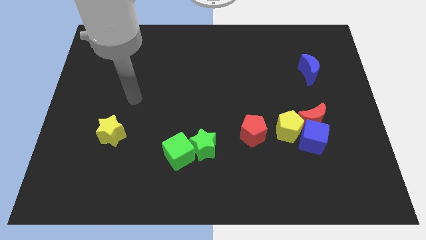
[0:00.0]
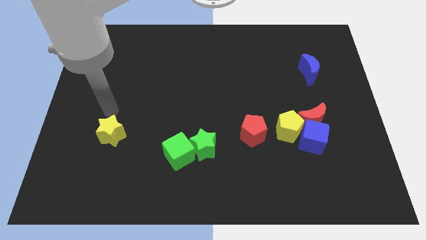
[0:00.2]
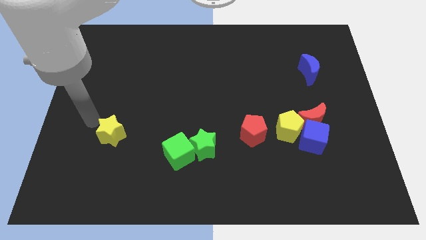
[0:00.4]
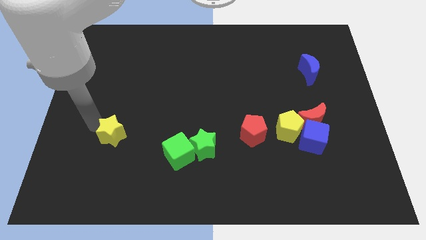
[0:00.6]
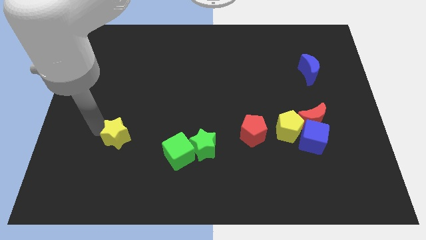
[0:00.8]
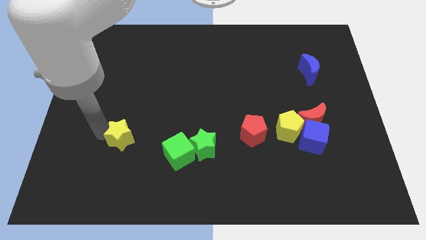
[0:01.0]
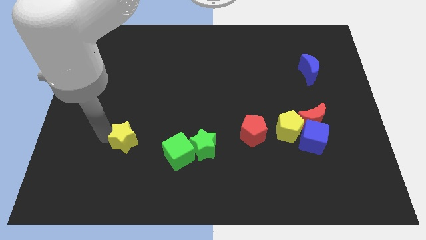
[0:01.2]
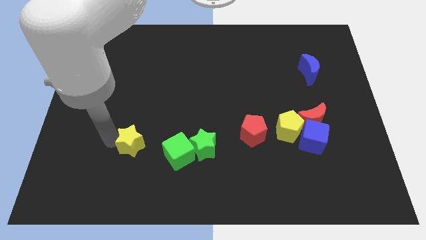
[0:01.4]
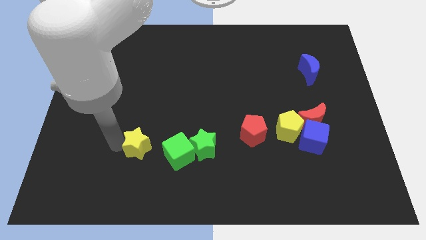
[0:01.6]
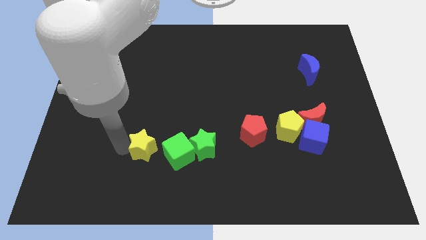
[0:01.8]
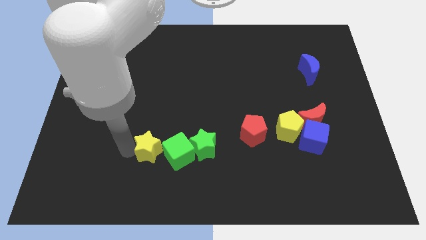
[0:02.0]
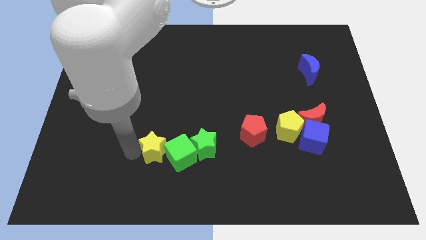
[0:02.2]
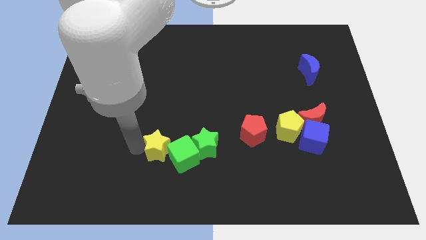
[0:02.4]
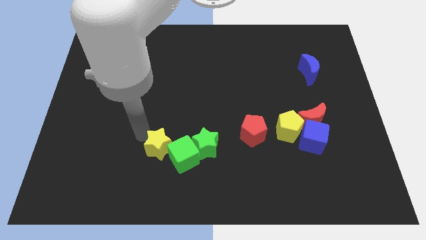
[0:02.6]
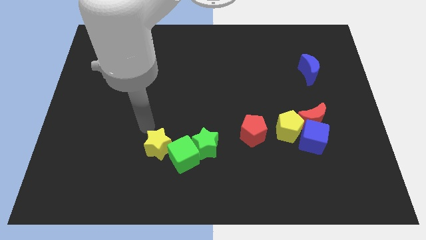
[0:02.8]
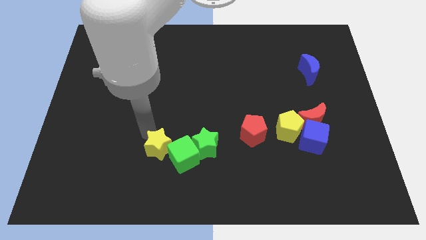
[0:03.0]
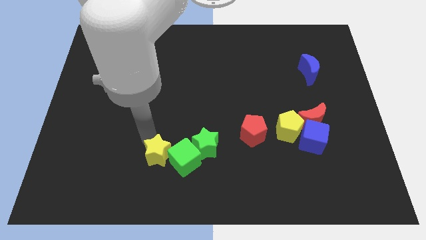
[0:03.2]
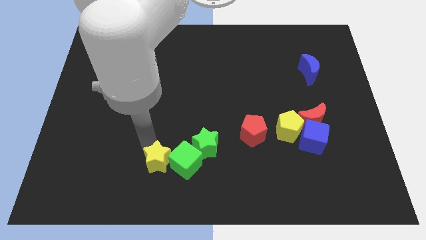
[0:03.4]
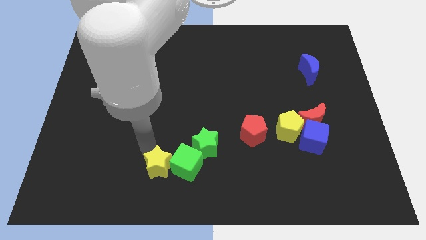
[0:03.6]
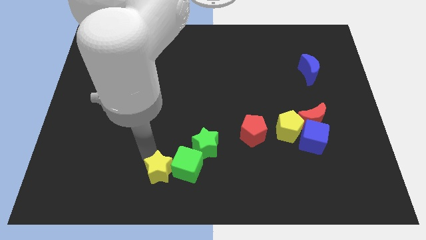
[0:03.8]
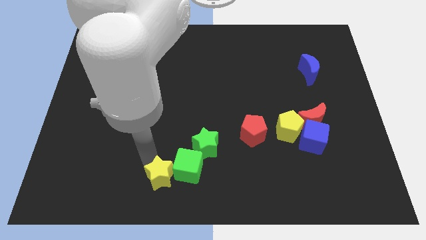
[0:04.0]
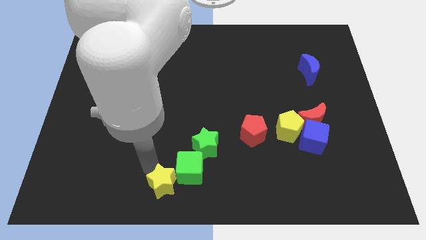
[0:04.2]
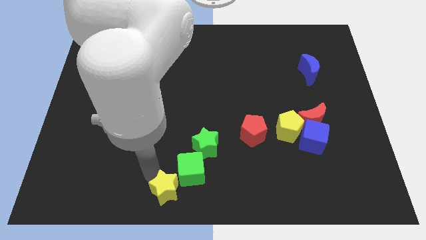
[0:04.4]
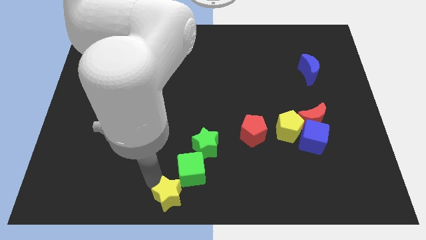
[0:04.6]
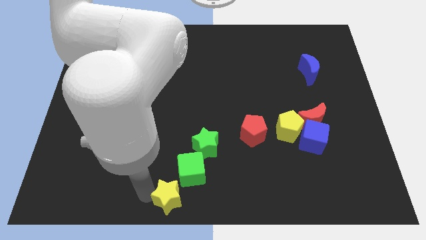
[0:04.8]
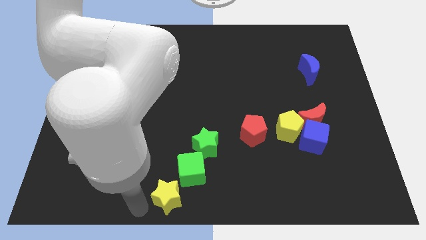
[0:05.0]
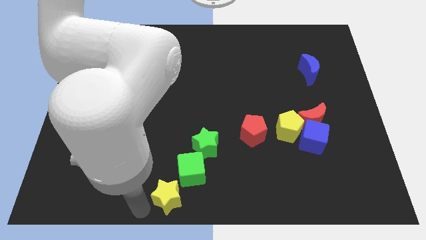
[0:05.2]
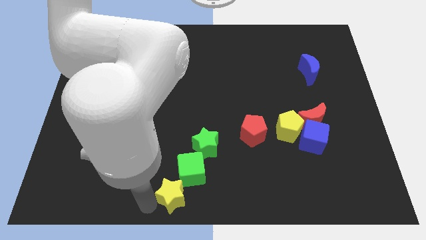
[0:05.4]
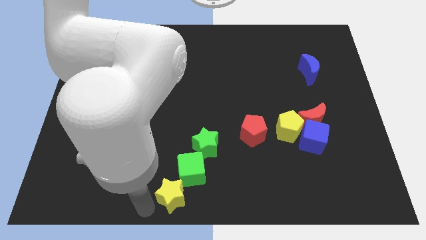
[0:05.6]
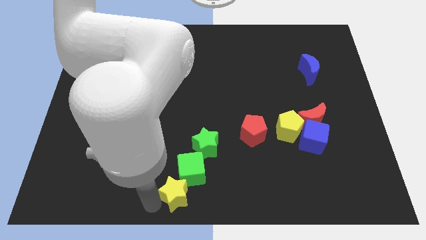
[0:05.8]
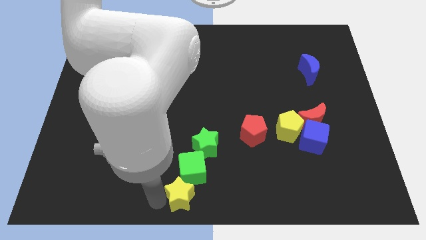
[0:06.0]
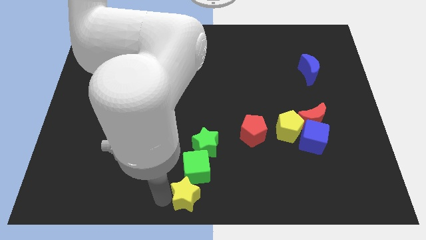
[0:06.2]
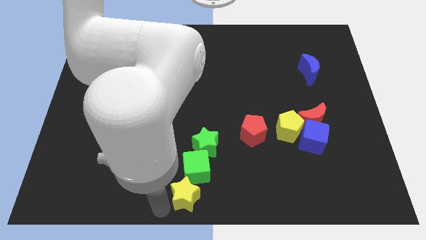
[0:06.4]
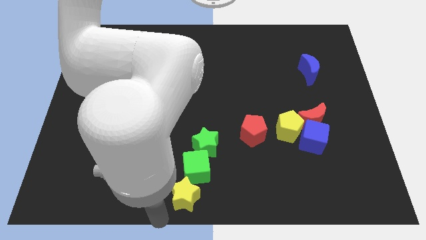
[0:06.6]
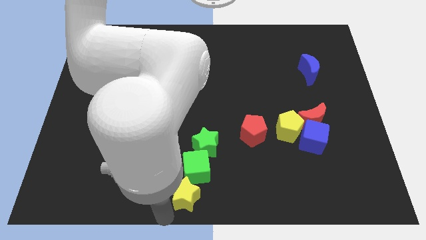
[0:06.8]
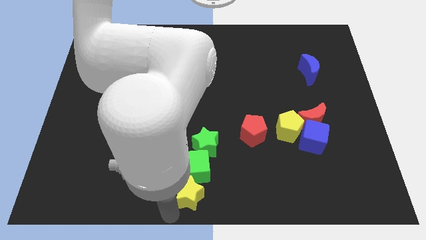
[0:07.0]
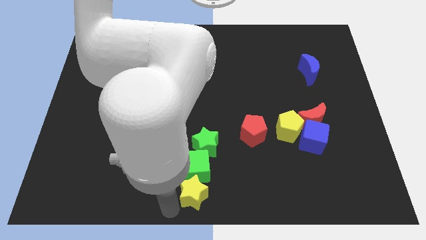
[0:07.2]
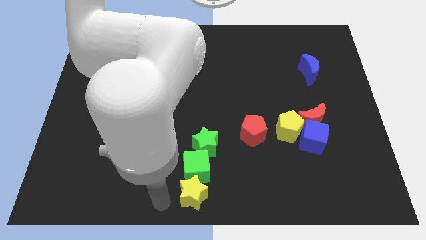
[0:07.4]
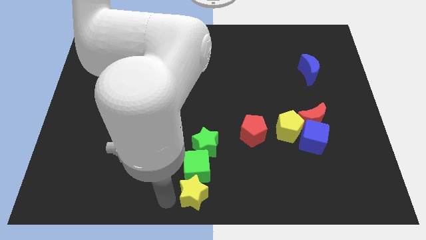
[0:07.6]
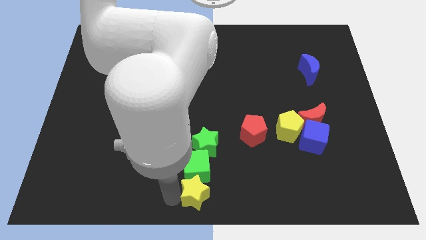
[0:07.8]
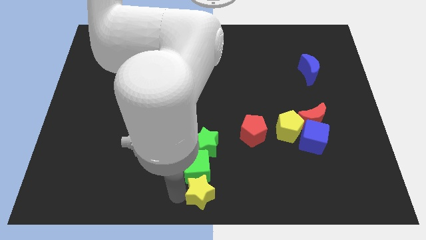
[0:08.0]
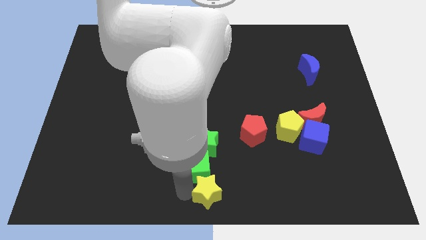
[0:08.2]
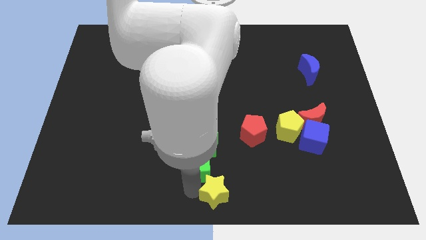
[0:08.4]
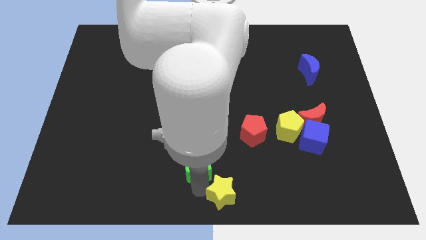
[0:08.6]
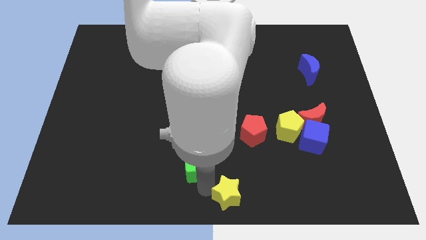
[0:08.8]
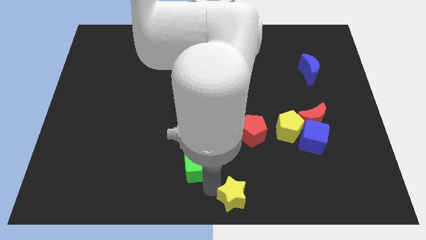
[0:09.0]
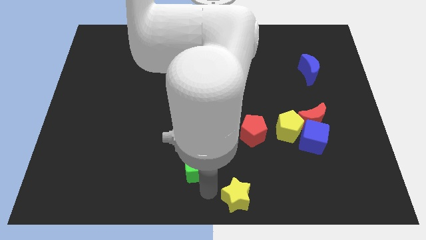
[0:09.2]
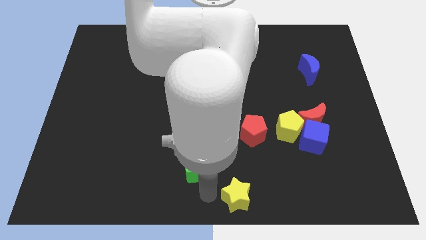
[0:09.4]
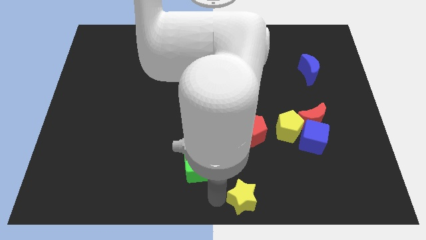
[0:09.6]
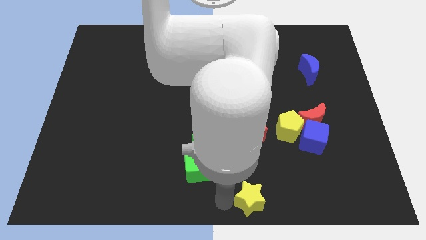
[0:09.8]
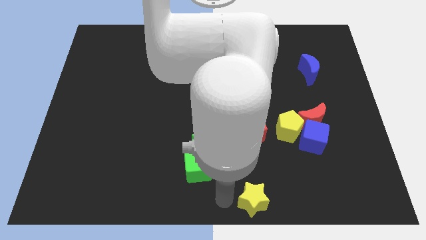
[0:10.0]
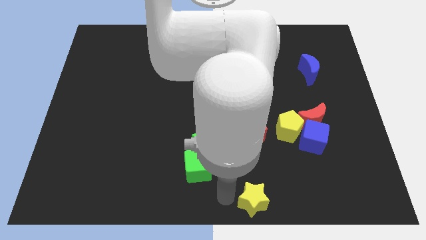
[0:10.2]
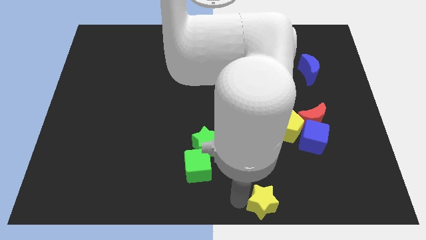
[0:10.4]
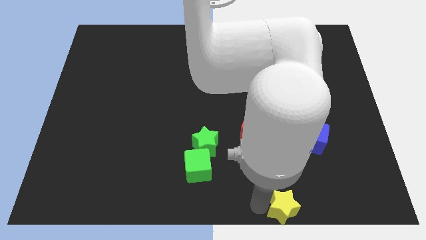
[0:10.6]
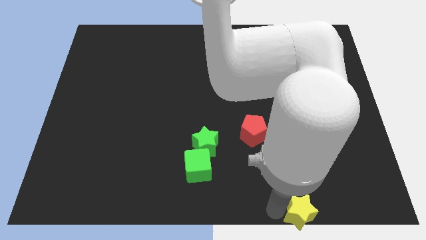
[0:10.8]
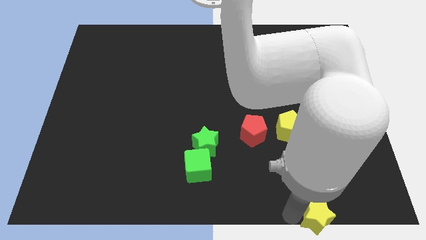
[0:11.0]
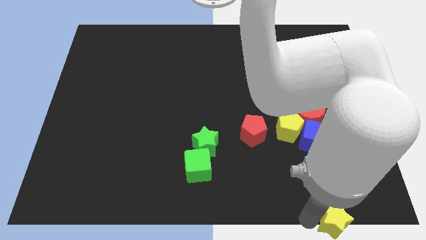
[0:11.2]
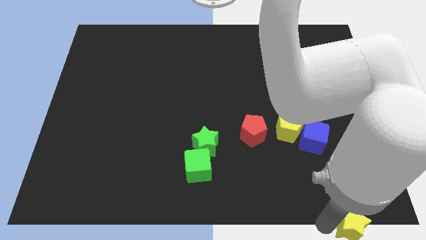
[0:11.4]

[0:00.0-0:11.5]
put the yellow star to the bottom right of the board

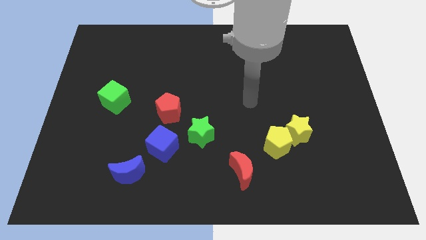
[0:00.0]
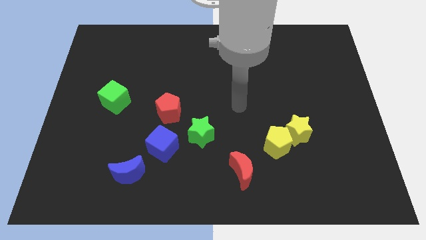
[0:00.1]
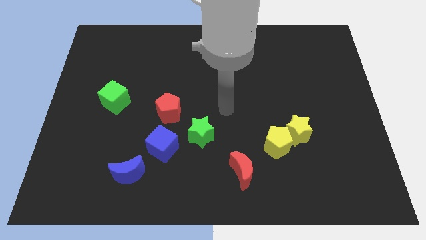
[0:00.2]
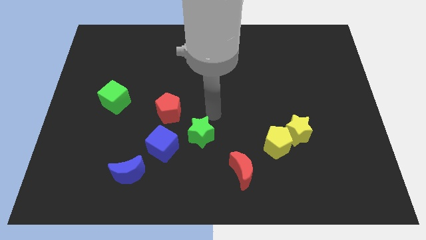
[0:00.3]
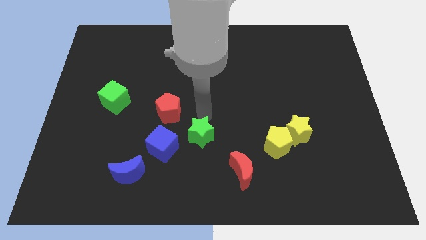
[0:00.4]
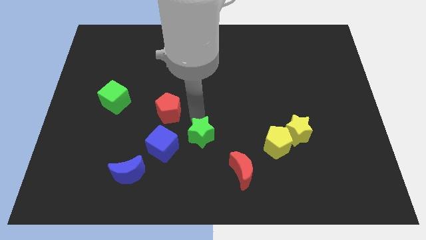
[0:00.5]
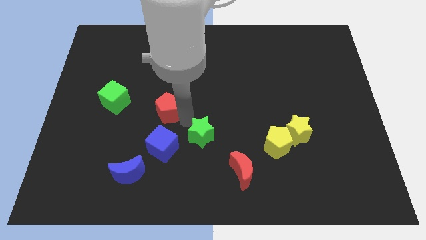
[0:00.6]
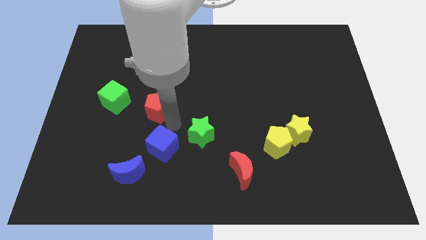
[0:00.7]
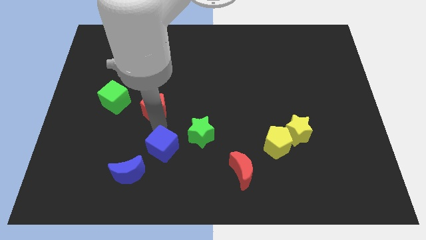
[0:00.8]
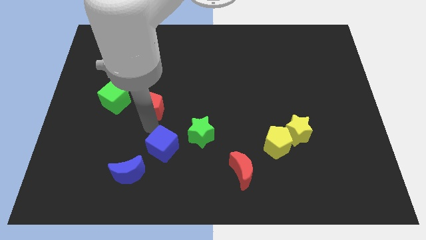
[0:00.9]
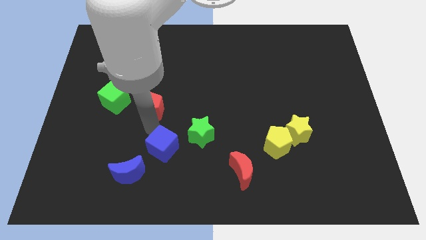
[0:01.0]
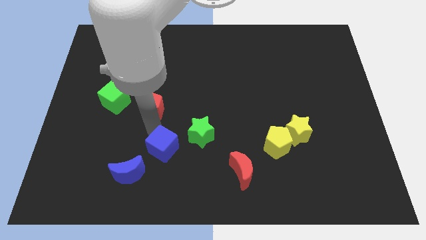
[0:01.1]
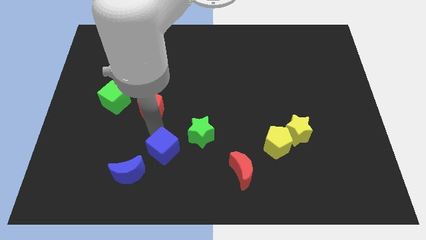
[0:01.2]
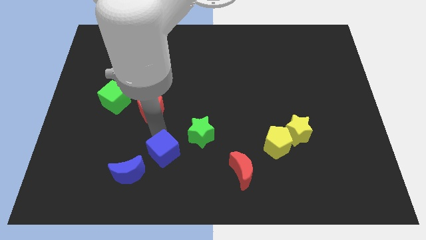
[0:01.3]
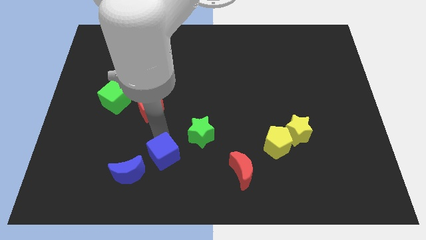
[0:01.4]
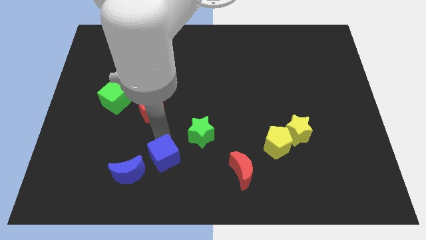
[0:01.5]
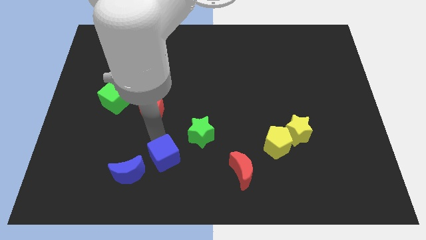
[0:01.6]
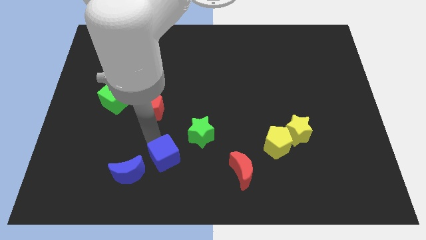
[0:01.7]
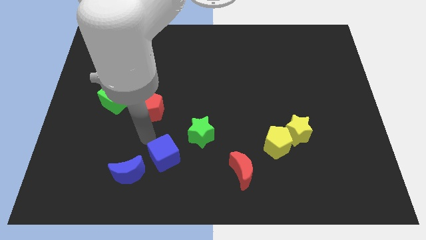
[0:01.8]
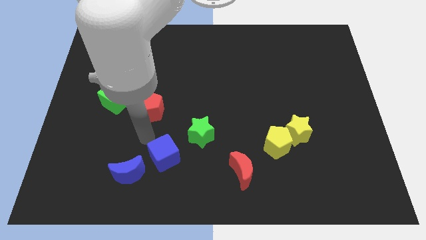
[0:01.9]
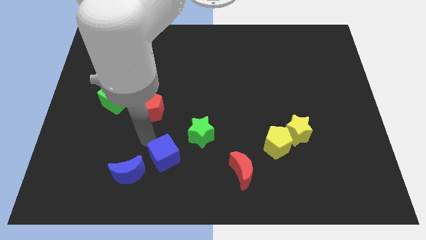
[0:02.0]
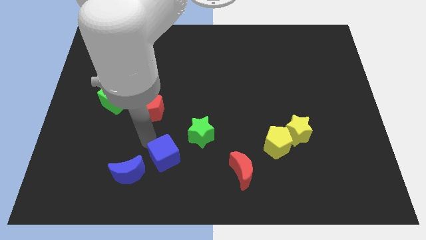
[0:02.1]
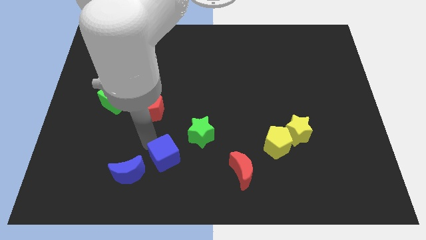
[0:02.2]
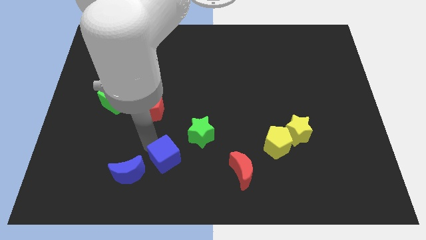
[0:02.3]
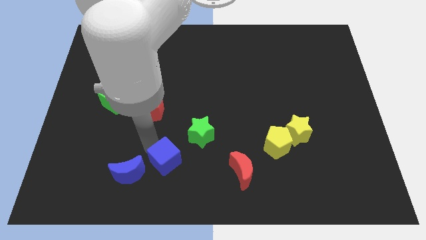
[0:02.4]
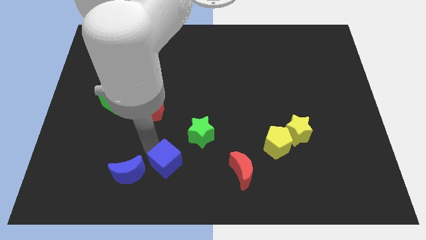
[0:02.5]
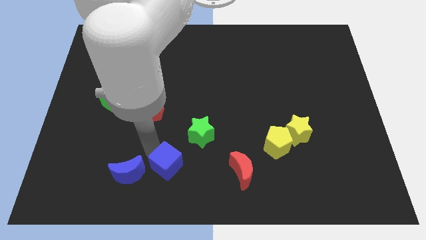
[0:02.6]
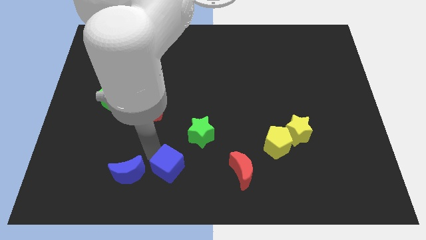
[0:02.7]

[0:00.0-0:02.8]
put the blue cube to the bottom
